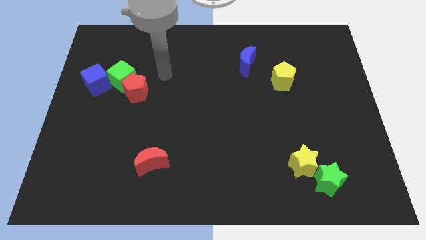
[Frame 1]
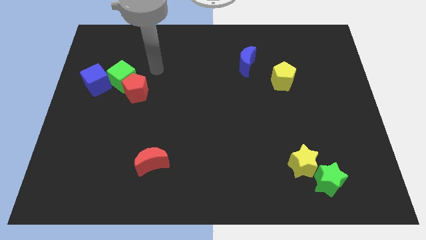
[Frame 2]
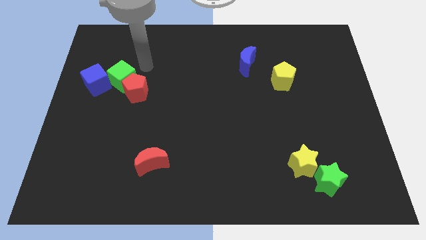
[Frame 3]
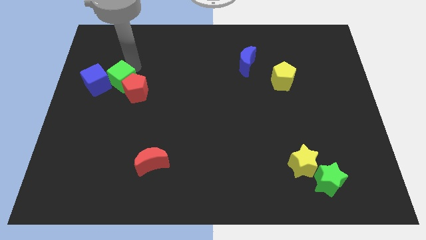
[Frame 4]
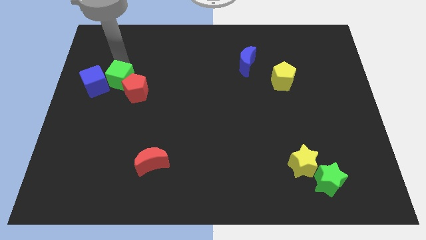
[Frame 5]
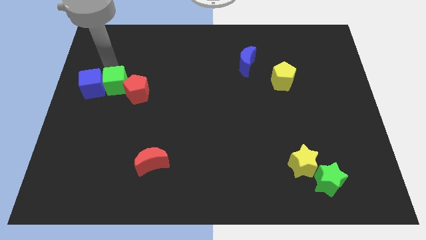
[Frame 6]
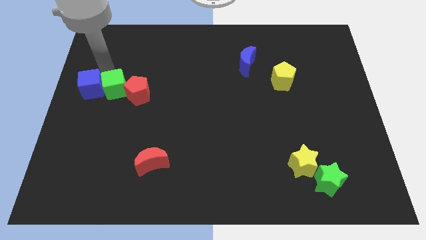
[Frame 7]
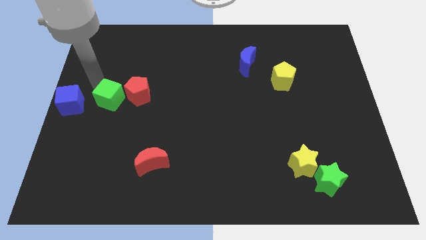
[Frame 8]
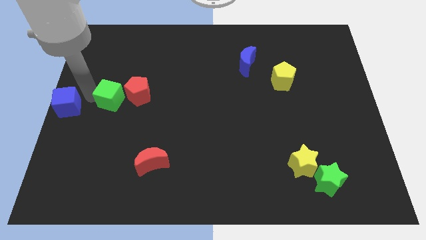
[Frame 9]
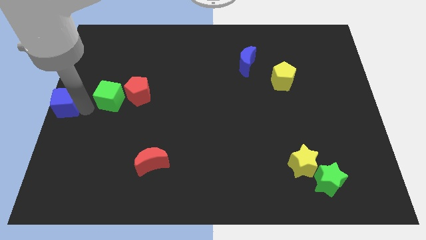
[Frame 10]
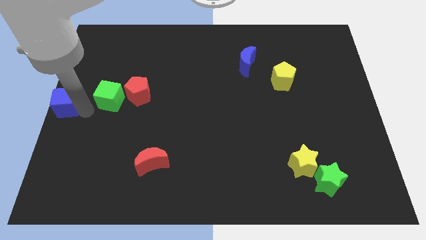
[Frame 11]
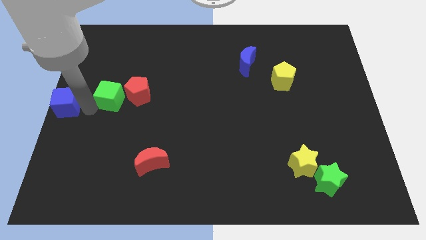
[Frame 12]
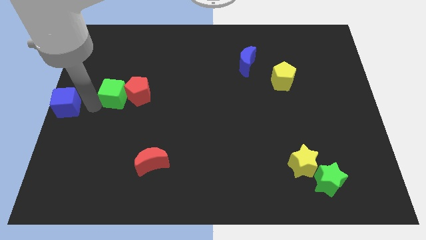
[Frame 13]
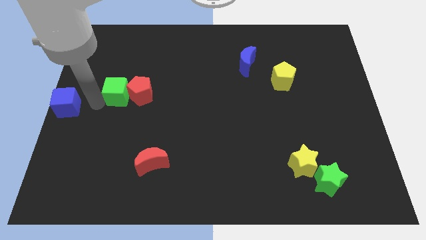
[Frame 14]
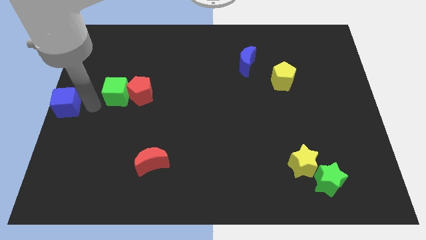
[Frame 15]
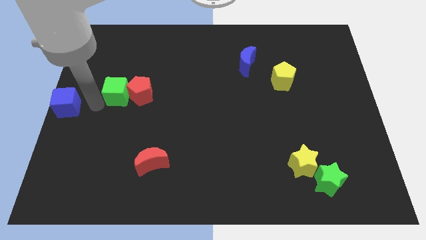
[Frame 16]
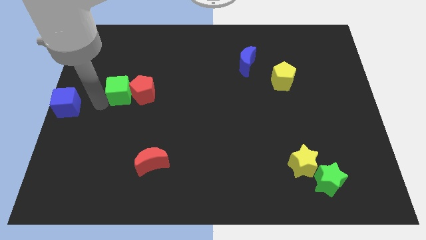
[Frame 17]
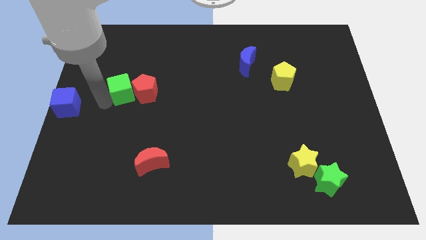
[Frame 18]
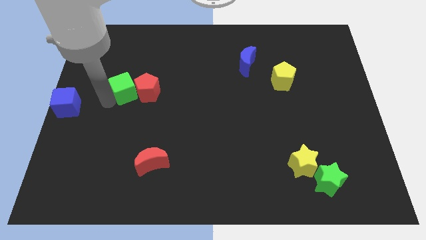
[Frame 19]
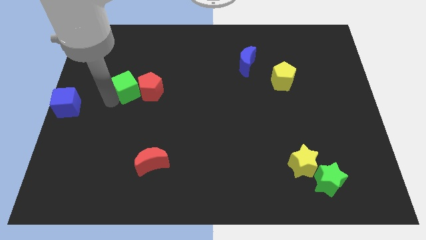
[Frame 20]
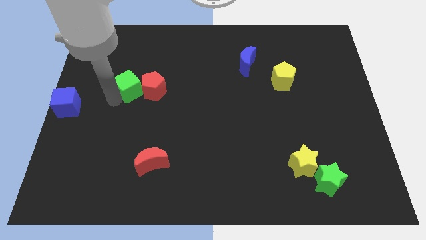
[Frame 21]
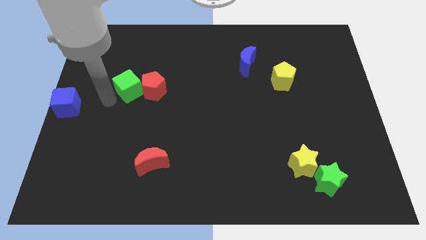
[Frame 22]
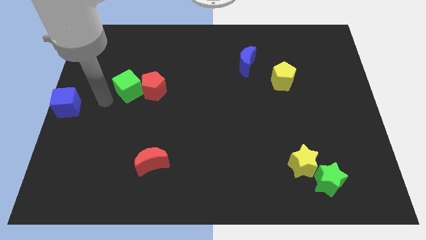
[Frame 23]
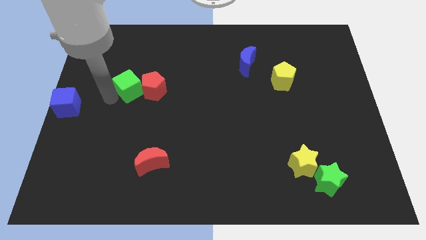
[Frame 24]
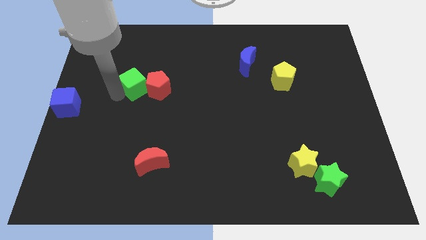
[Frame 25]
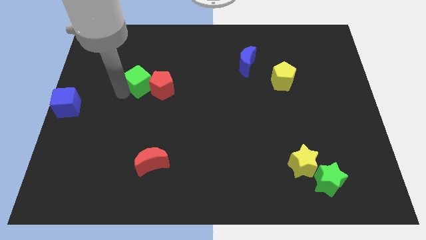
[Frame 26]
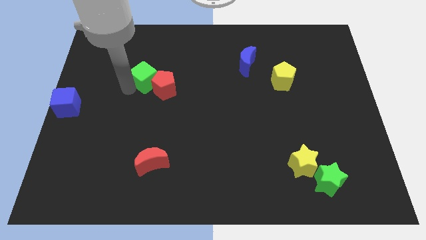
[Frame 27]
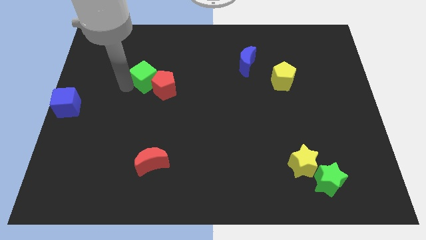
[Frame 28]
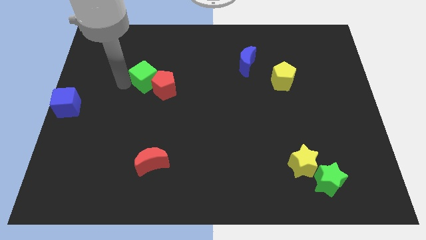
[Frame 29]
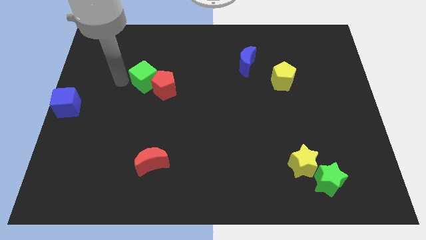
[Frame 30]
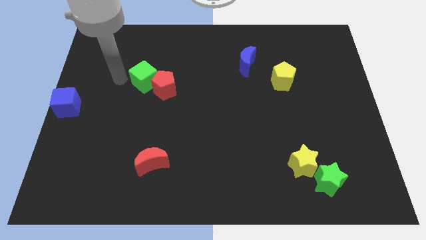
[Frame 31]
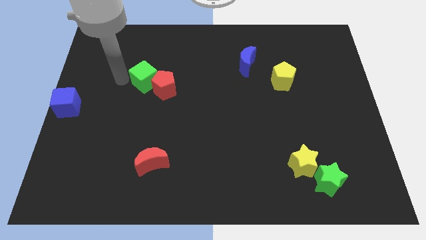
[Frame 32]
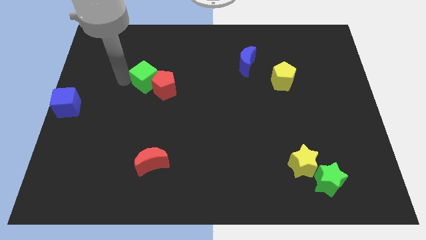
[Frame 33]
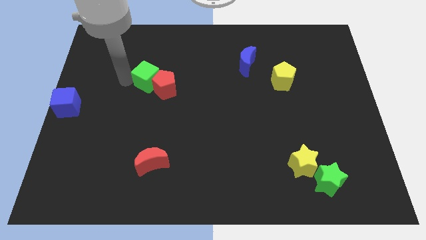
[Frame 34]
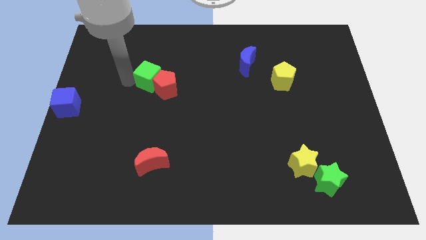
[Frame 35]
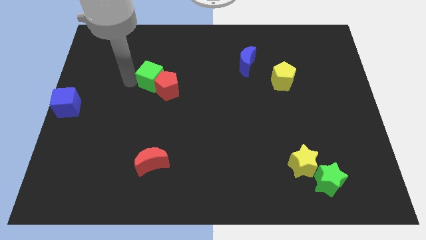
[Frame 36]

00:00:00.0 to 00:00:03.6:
move the green cube right somewhat

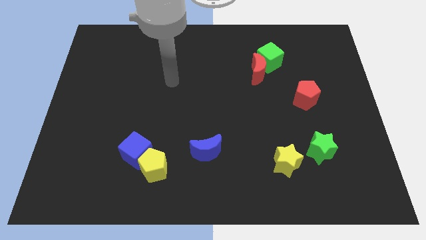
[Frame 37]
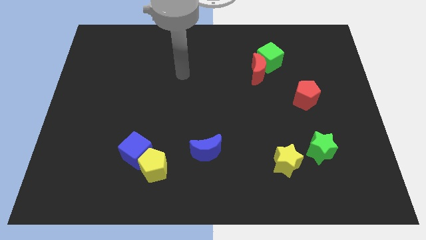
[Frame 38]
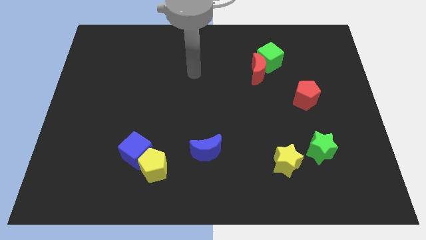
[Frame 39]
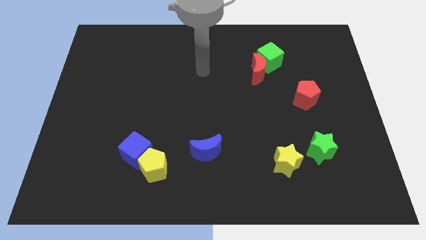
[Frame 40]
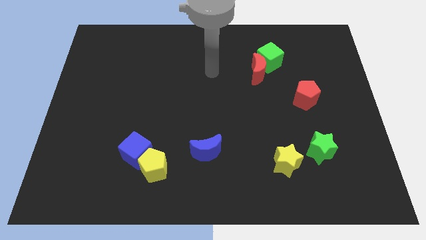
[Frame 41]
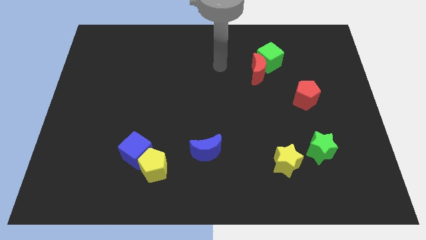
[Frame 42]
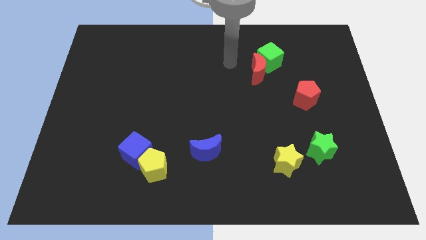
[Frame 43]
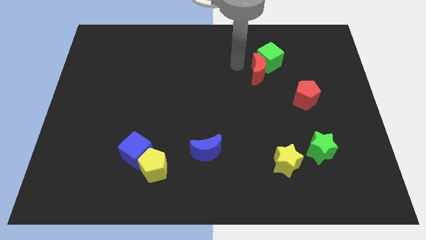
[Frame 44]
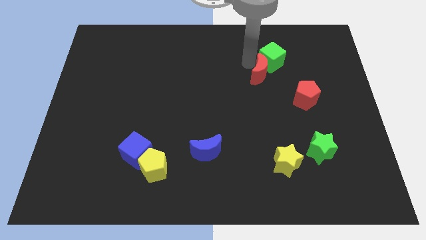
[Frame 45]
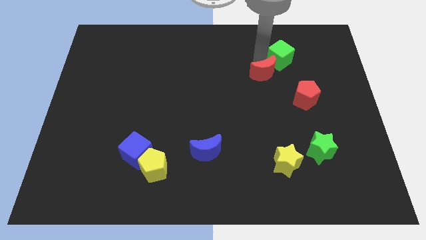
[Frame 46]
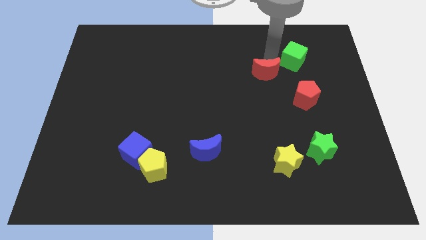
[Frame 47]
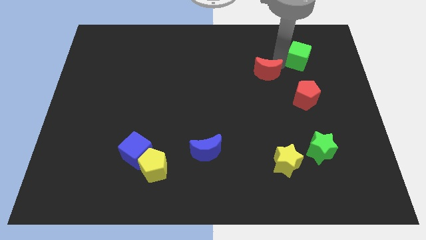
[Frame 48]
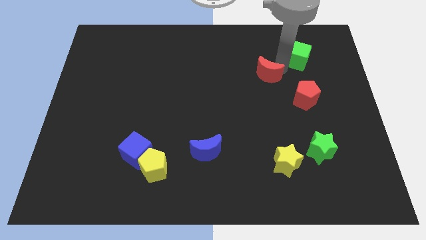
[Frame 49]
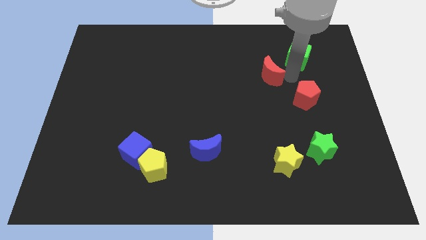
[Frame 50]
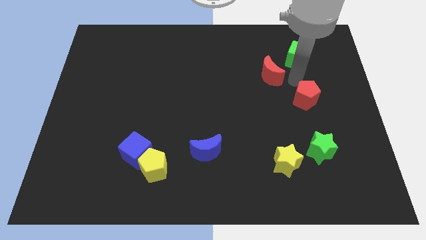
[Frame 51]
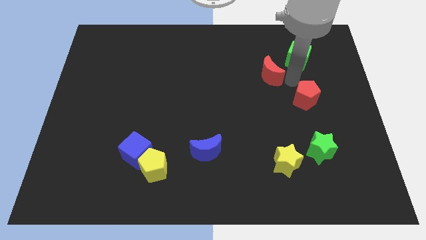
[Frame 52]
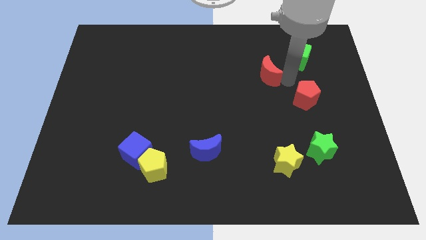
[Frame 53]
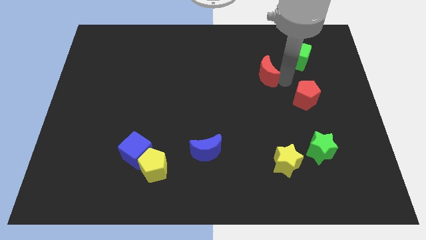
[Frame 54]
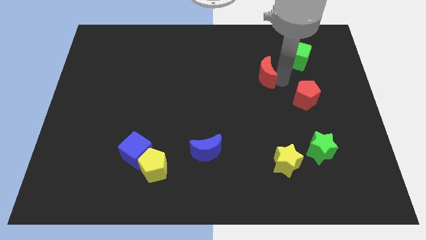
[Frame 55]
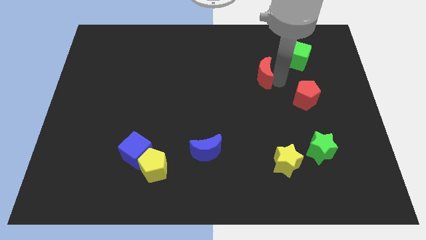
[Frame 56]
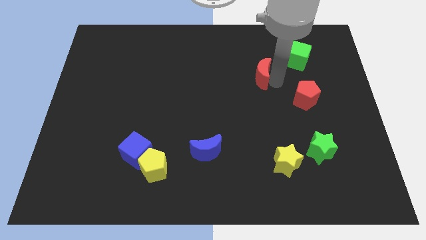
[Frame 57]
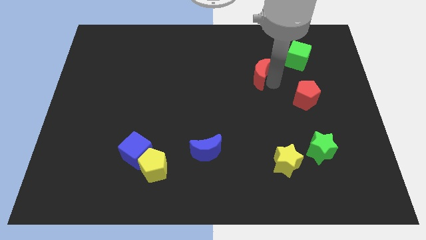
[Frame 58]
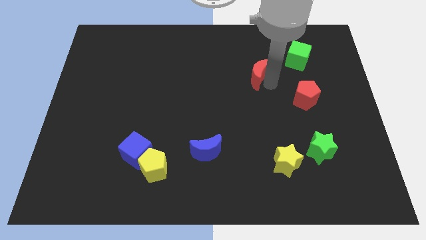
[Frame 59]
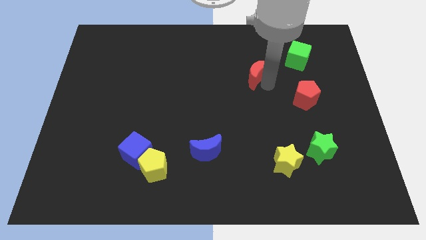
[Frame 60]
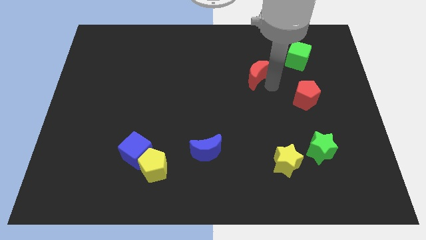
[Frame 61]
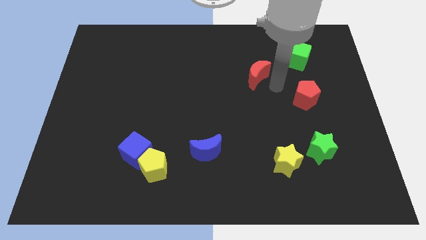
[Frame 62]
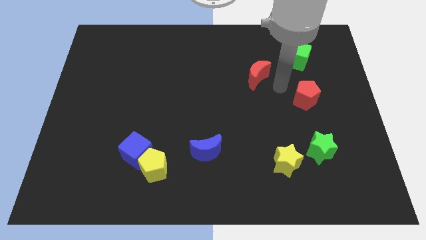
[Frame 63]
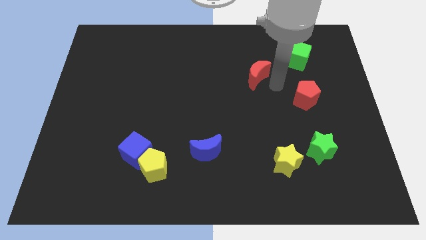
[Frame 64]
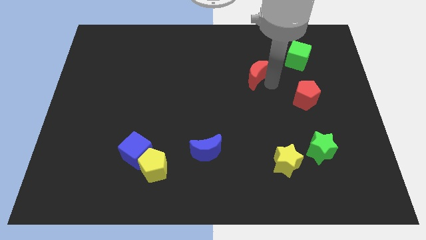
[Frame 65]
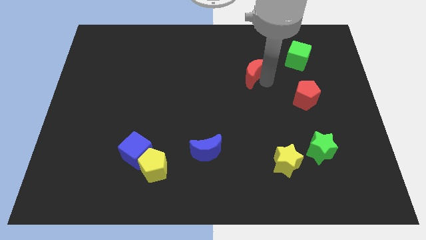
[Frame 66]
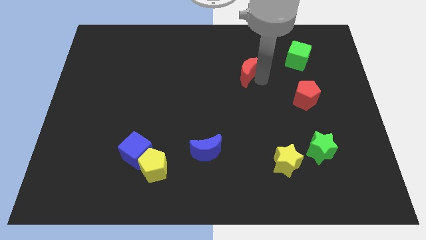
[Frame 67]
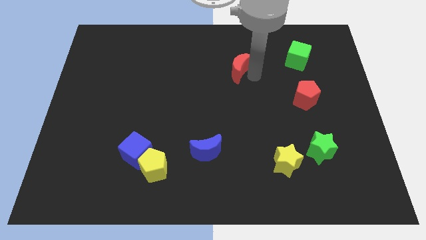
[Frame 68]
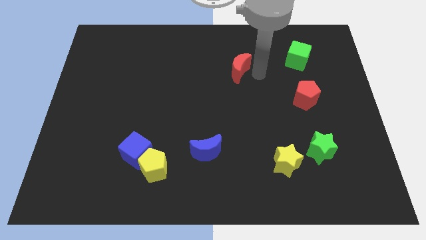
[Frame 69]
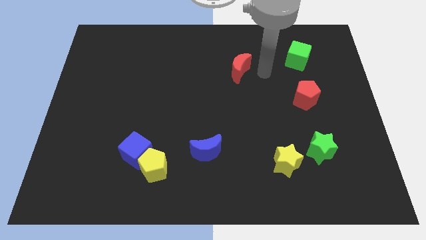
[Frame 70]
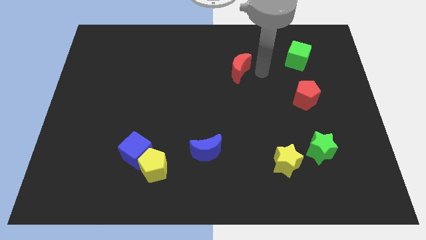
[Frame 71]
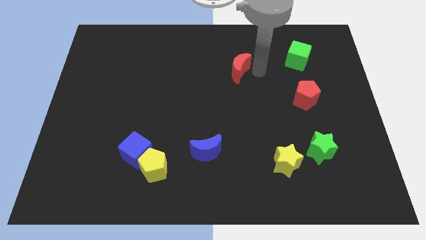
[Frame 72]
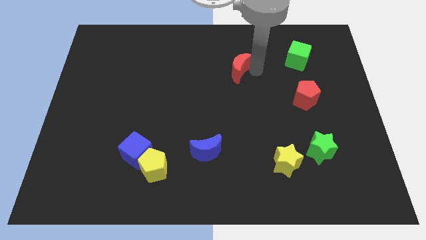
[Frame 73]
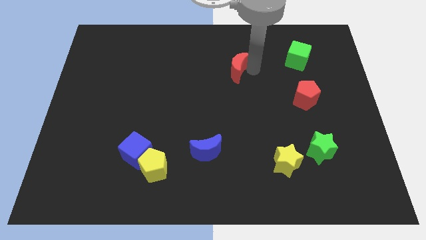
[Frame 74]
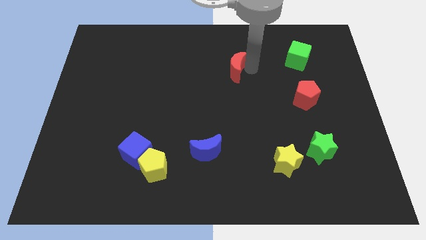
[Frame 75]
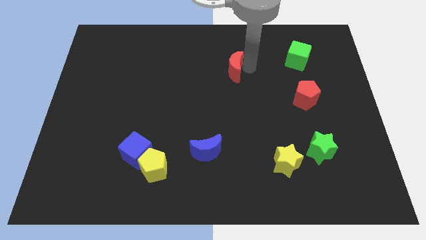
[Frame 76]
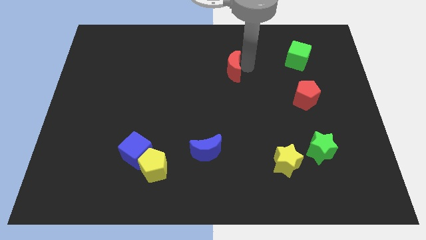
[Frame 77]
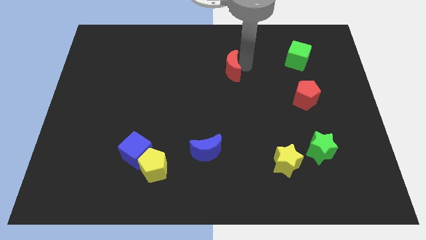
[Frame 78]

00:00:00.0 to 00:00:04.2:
slide the red moon left a bit

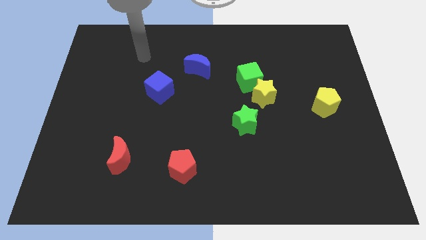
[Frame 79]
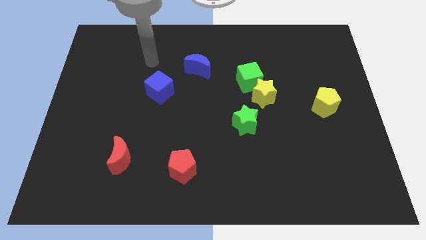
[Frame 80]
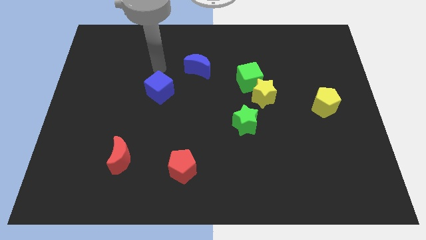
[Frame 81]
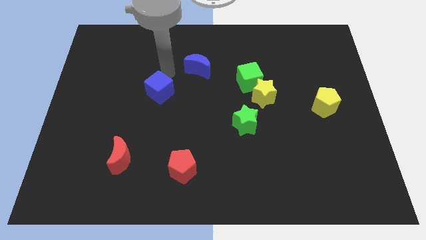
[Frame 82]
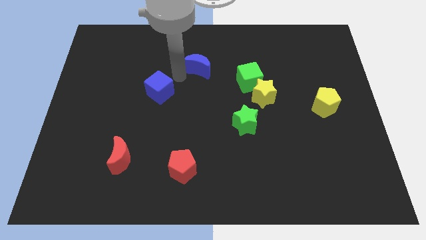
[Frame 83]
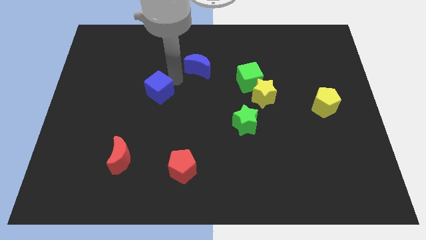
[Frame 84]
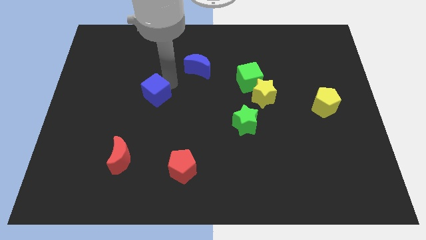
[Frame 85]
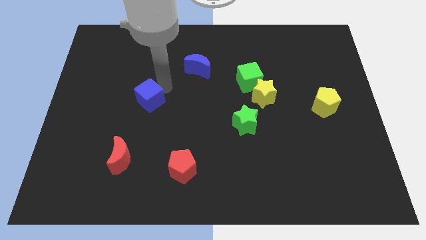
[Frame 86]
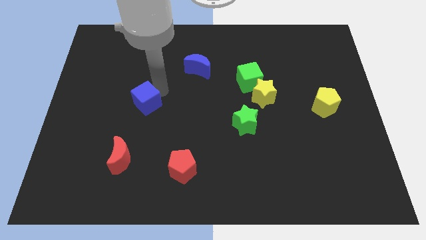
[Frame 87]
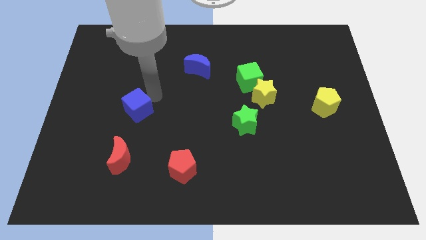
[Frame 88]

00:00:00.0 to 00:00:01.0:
push the blue cube down and to the left slightly
